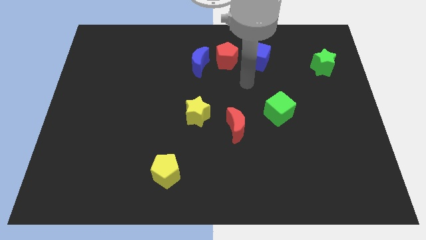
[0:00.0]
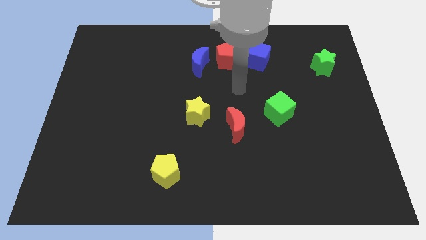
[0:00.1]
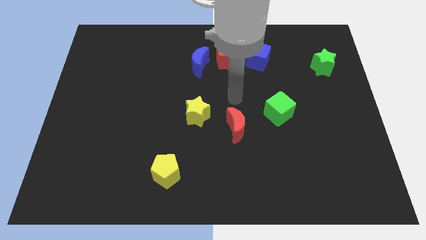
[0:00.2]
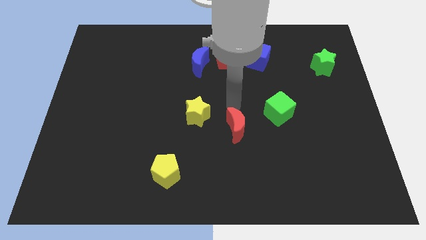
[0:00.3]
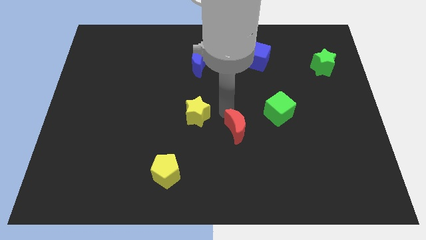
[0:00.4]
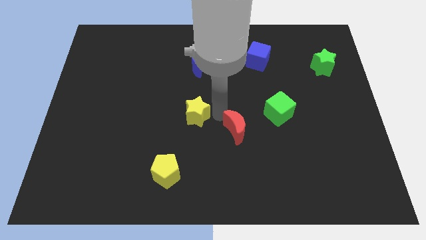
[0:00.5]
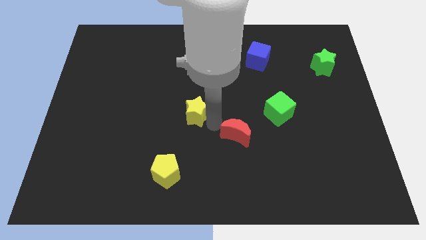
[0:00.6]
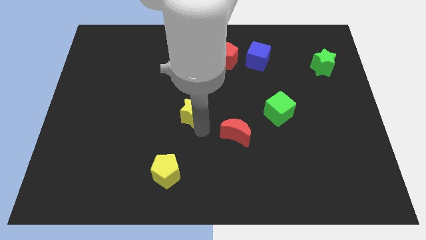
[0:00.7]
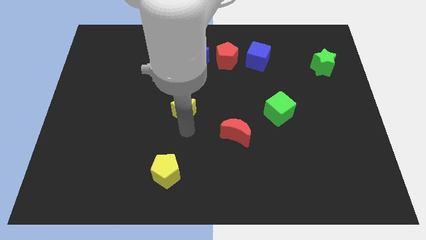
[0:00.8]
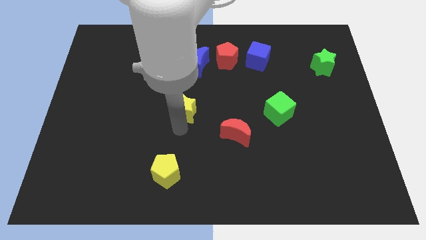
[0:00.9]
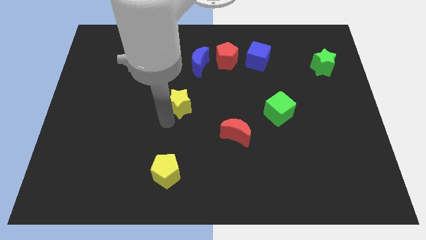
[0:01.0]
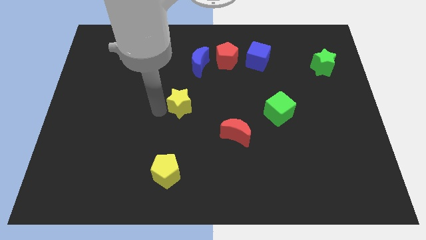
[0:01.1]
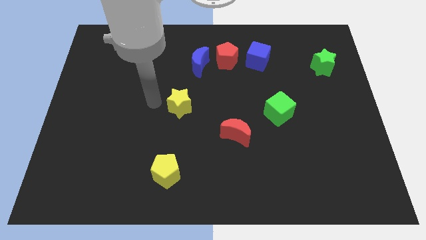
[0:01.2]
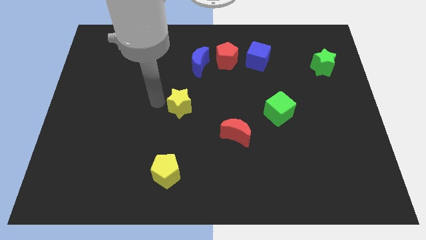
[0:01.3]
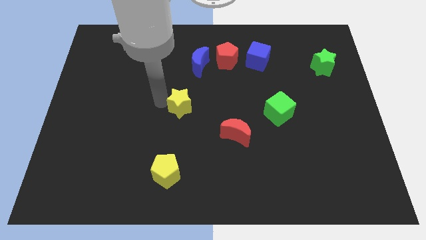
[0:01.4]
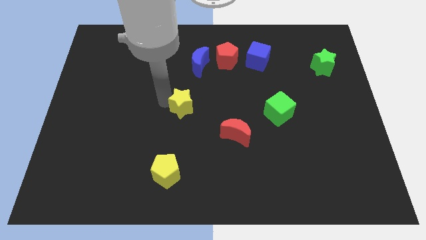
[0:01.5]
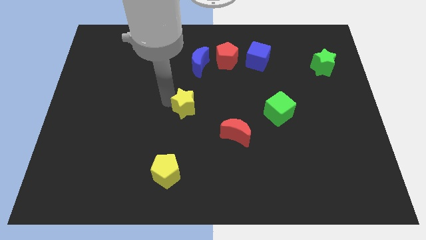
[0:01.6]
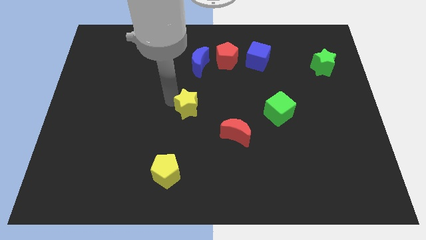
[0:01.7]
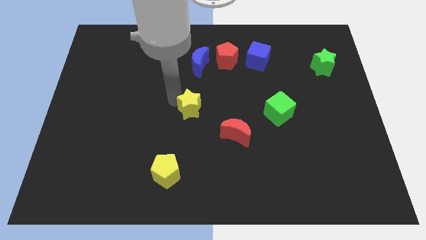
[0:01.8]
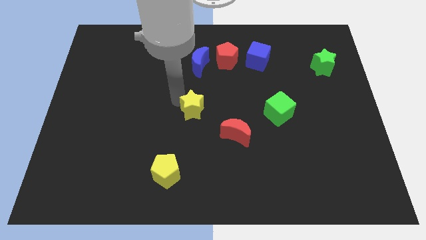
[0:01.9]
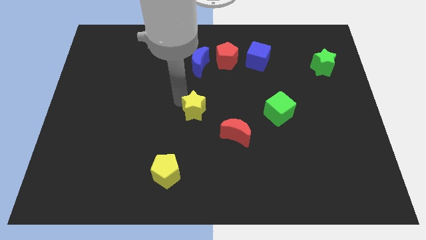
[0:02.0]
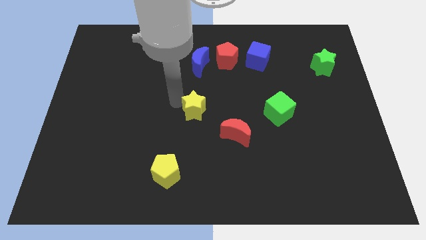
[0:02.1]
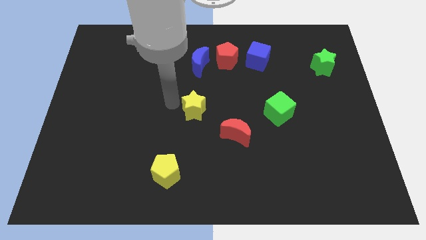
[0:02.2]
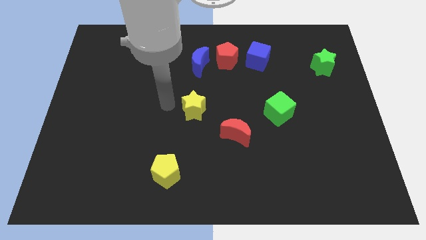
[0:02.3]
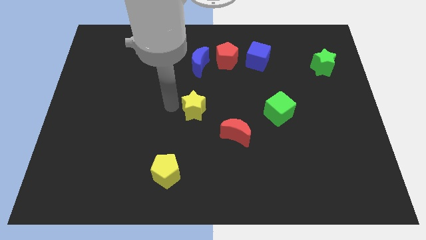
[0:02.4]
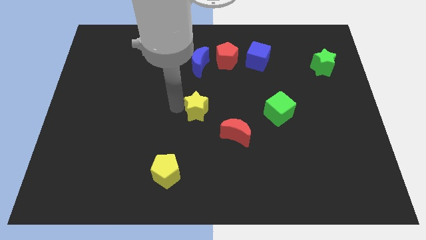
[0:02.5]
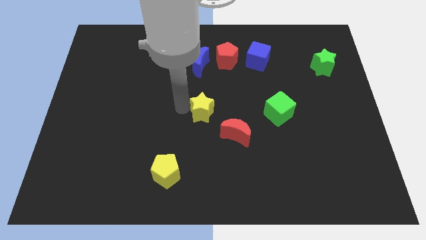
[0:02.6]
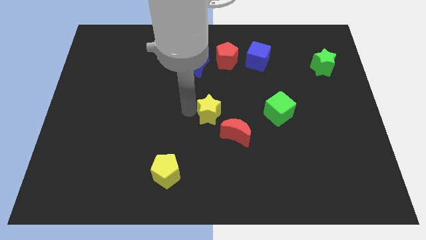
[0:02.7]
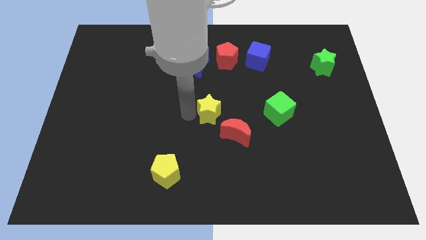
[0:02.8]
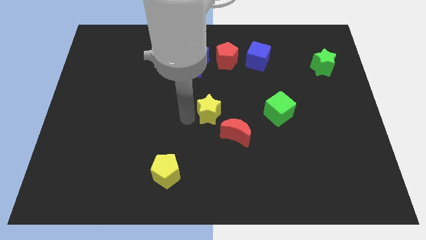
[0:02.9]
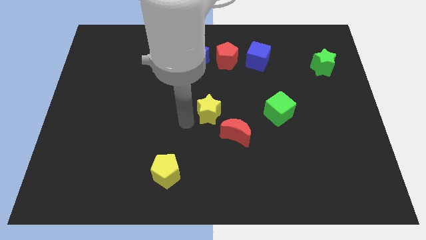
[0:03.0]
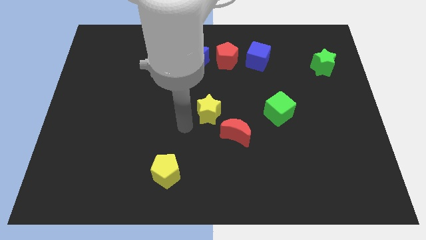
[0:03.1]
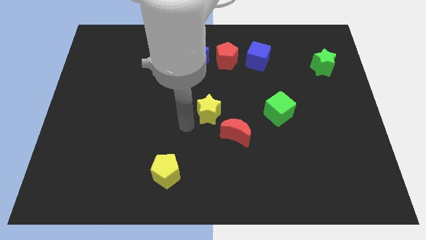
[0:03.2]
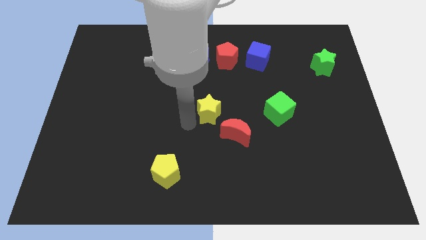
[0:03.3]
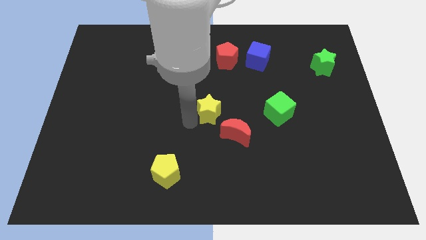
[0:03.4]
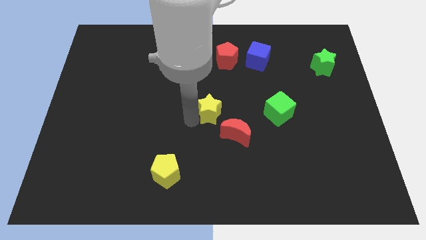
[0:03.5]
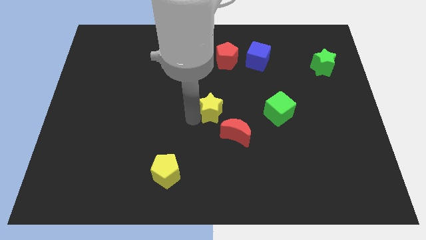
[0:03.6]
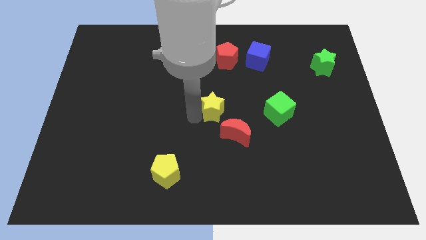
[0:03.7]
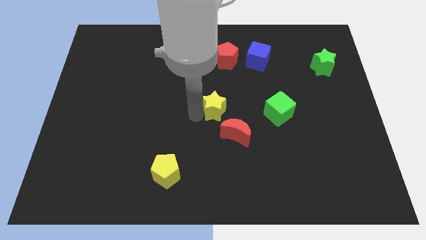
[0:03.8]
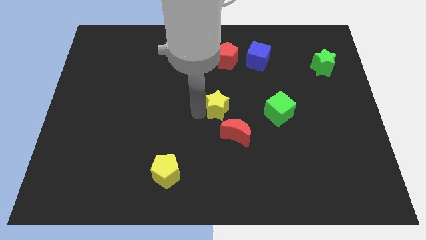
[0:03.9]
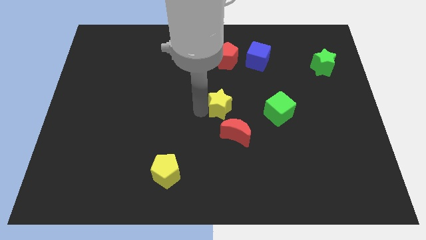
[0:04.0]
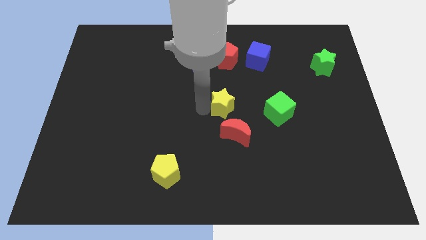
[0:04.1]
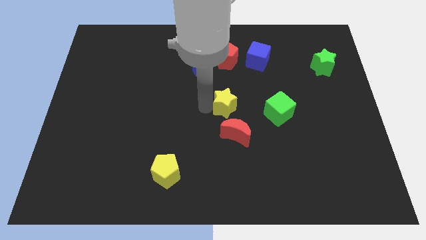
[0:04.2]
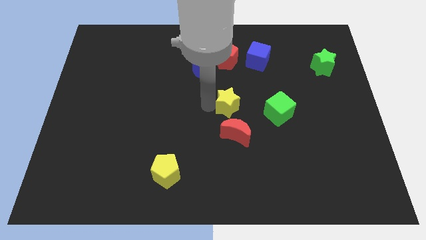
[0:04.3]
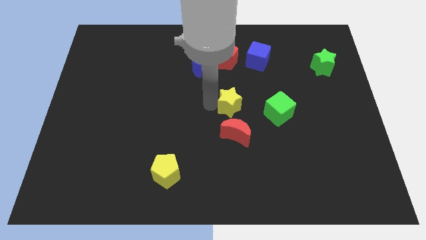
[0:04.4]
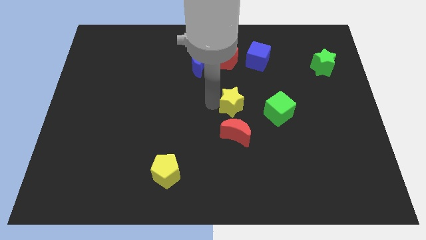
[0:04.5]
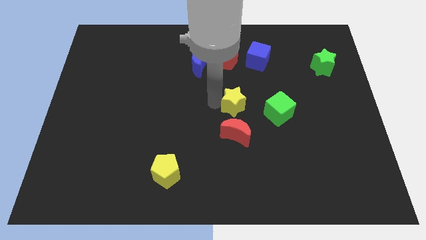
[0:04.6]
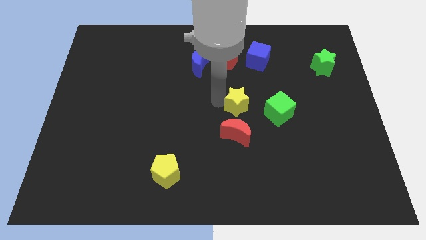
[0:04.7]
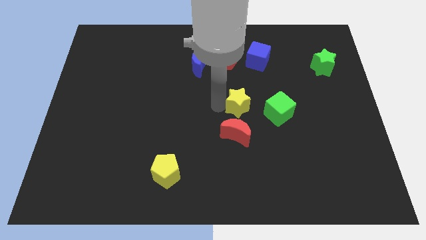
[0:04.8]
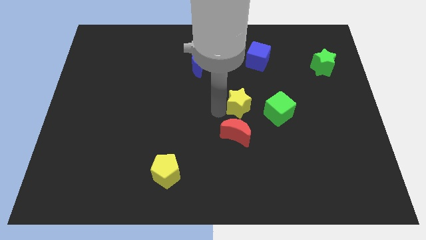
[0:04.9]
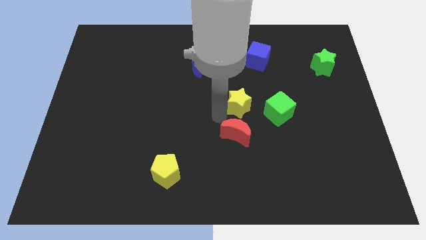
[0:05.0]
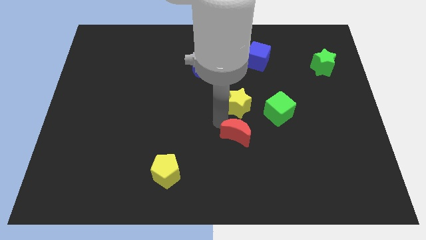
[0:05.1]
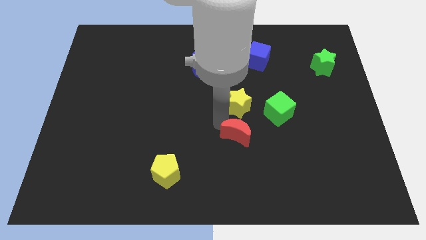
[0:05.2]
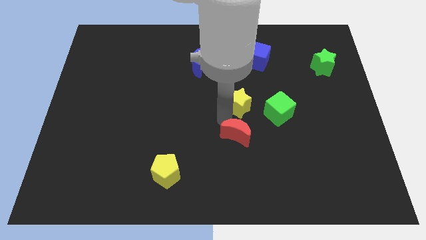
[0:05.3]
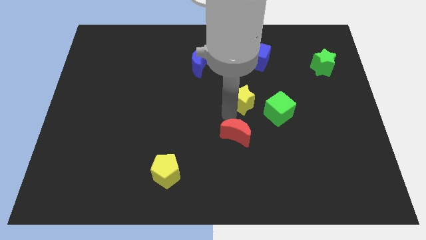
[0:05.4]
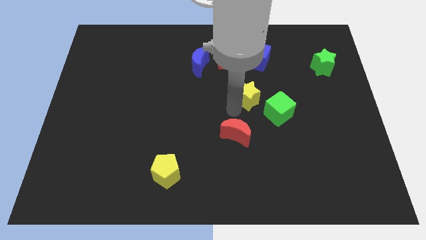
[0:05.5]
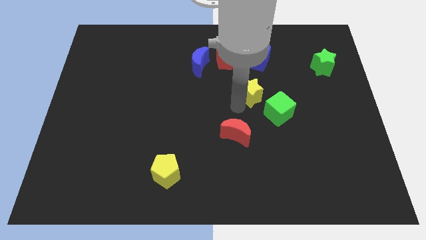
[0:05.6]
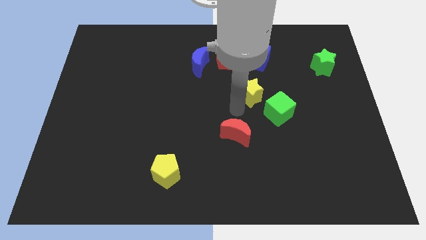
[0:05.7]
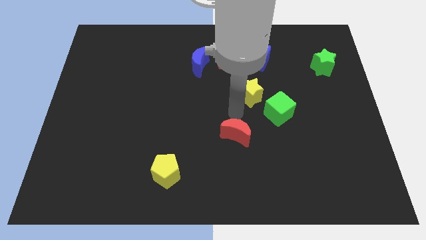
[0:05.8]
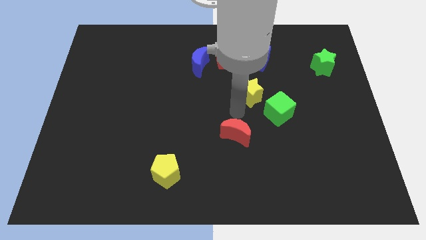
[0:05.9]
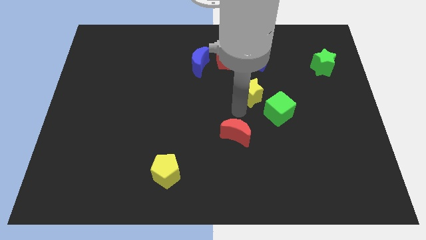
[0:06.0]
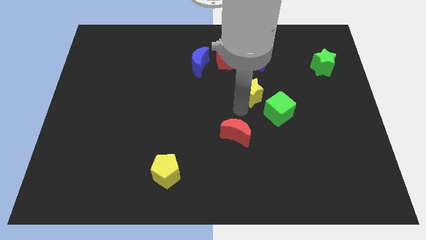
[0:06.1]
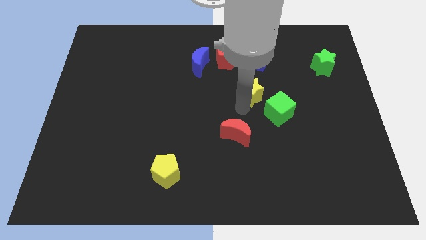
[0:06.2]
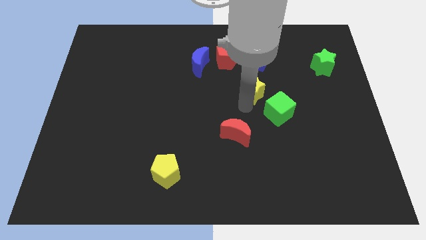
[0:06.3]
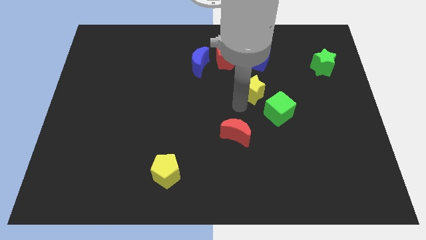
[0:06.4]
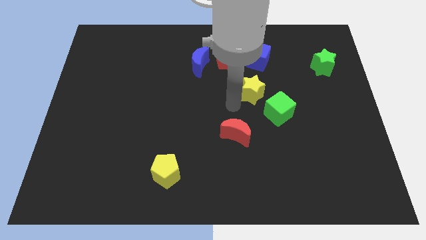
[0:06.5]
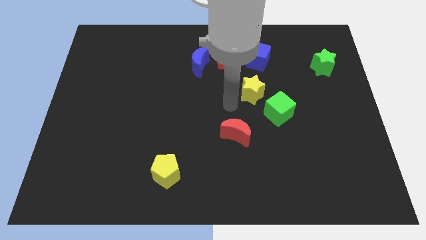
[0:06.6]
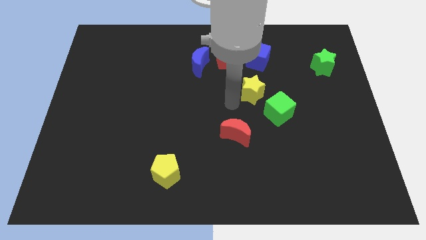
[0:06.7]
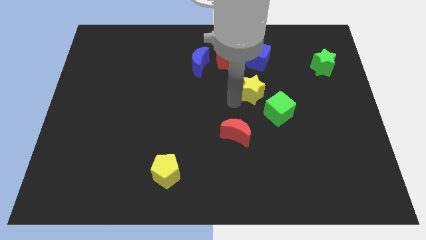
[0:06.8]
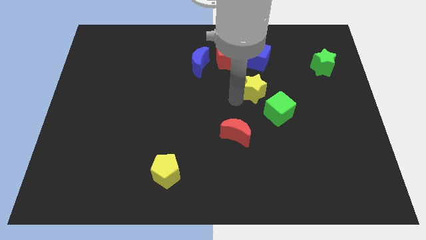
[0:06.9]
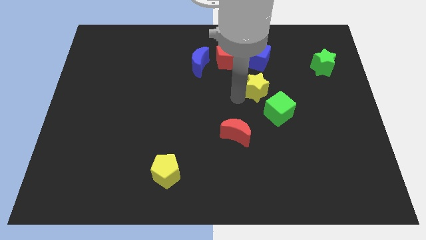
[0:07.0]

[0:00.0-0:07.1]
move the yellow star above the green cube

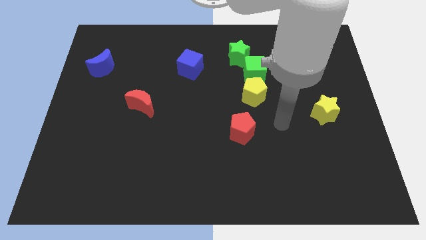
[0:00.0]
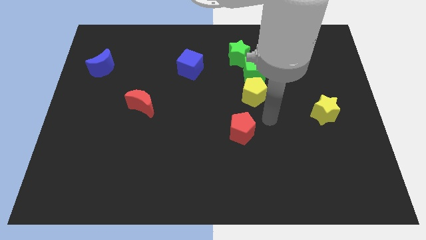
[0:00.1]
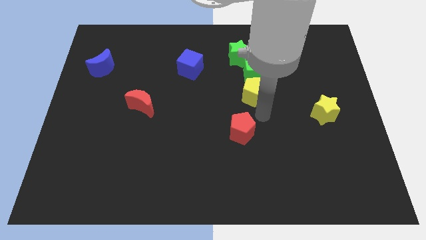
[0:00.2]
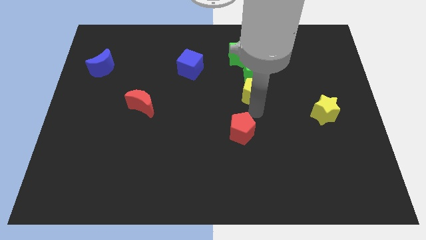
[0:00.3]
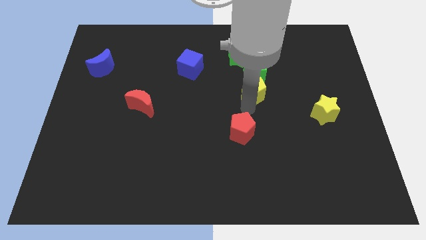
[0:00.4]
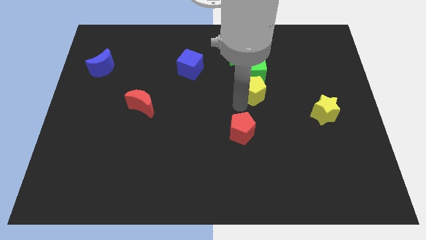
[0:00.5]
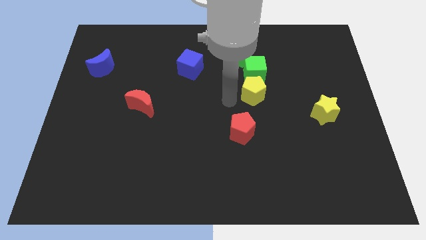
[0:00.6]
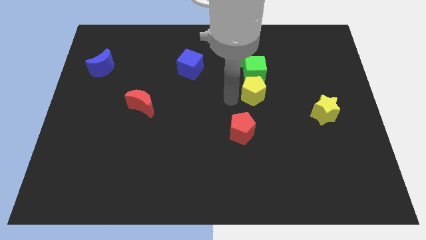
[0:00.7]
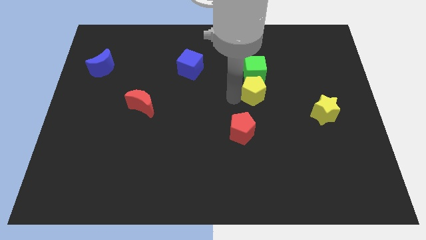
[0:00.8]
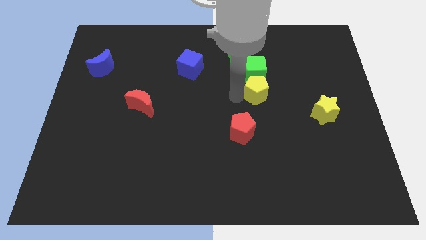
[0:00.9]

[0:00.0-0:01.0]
move the yellow pentagon to the bottom right side of the green cube
